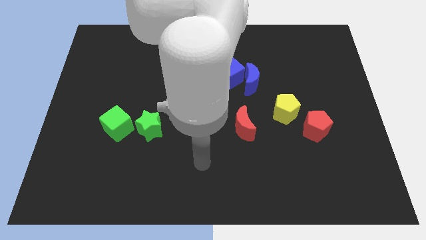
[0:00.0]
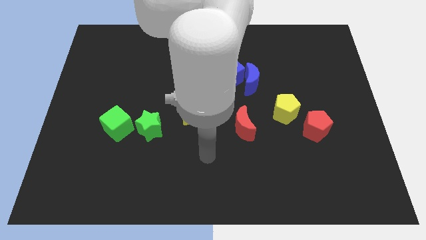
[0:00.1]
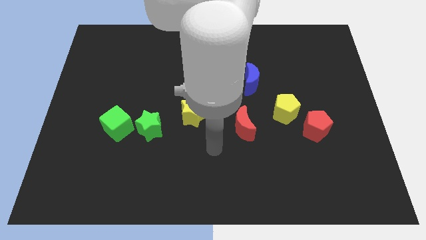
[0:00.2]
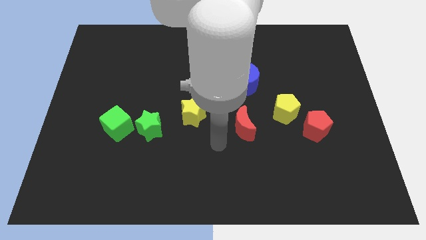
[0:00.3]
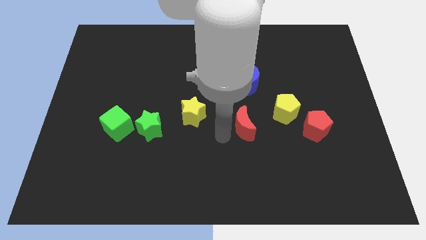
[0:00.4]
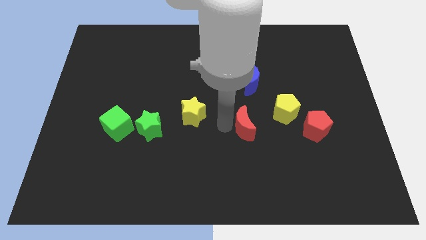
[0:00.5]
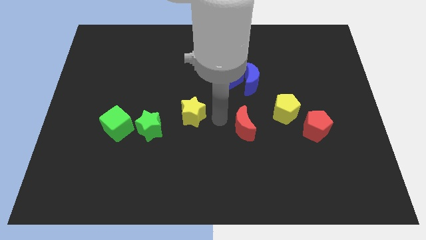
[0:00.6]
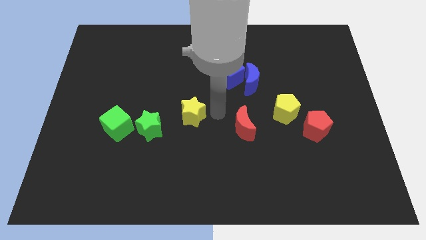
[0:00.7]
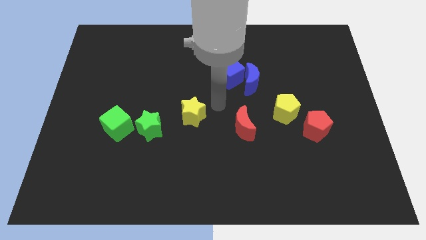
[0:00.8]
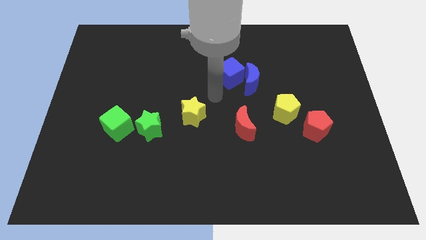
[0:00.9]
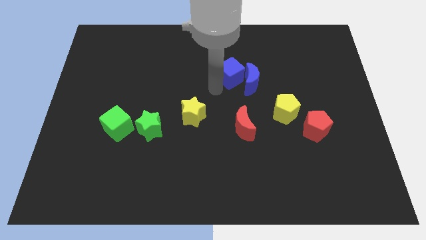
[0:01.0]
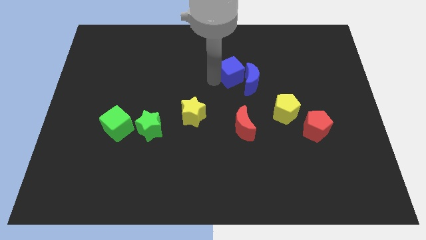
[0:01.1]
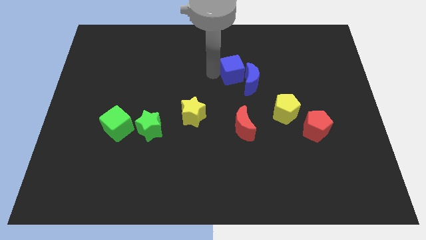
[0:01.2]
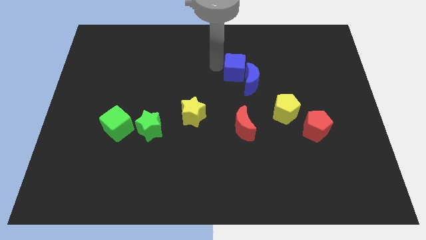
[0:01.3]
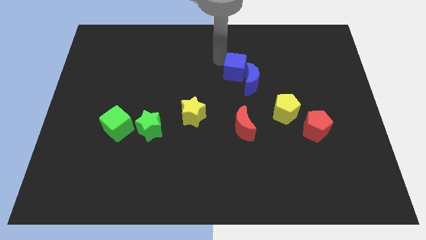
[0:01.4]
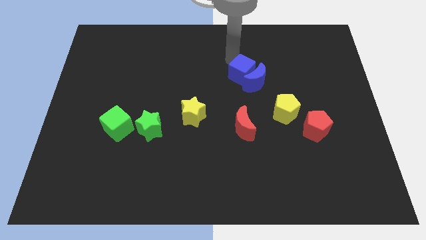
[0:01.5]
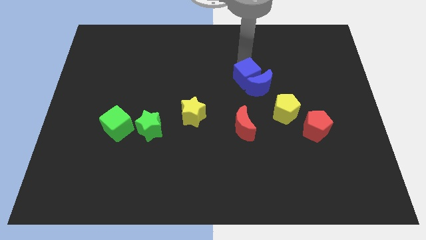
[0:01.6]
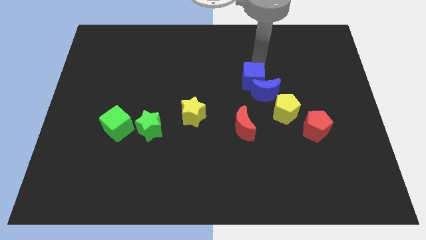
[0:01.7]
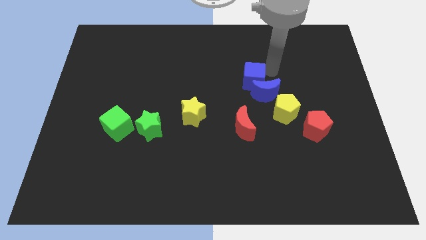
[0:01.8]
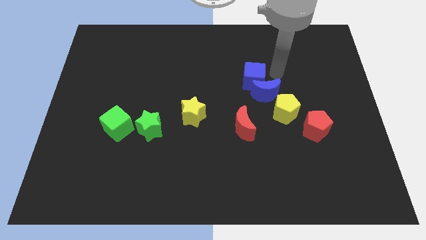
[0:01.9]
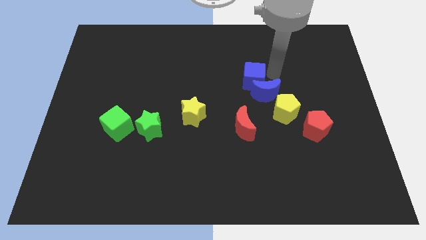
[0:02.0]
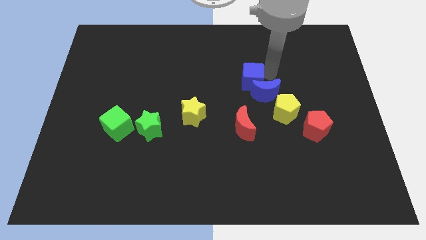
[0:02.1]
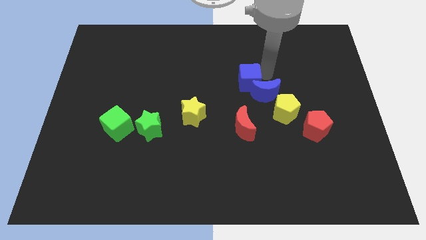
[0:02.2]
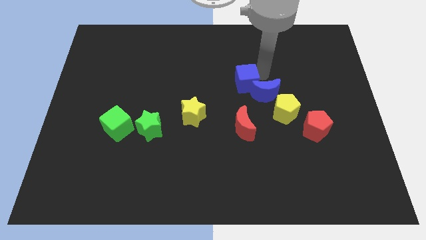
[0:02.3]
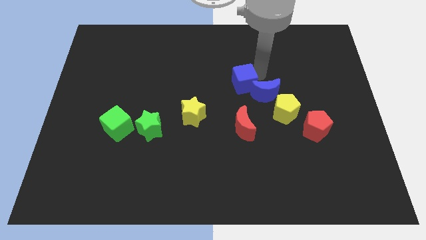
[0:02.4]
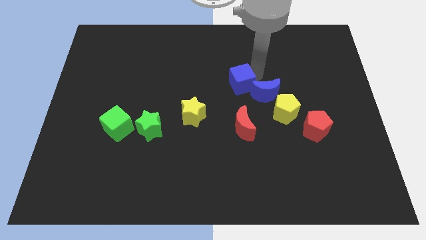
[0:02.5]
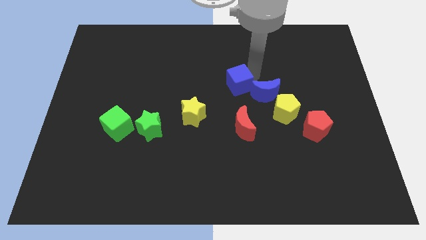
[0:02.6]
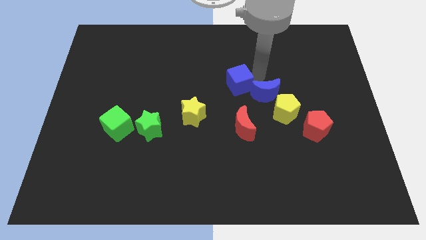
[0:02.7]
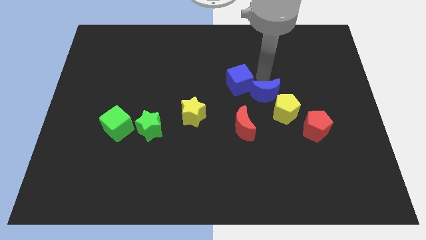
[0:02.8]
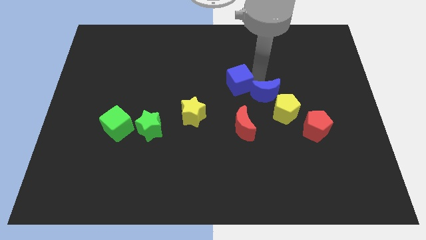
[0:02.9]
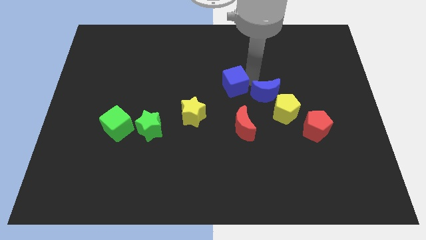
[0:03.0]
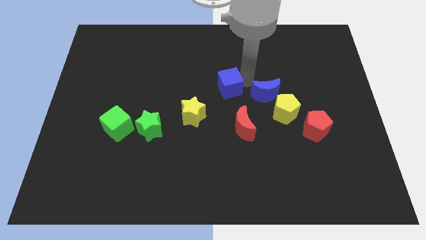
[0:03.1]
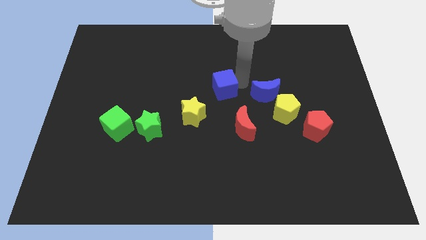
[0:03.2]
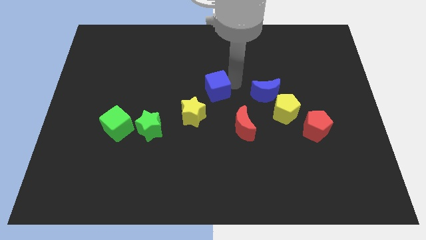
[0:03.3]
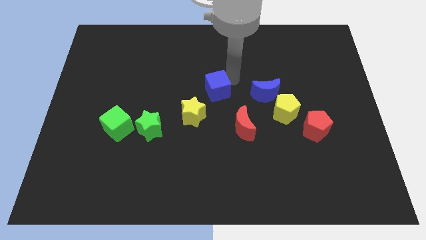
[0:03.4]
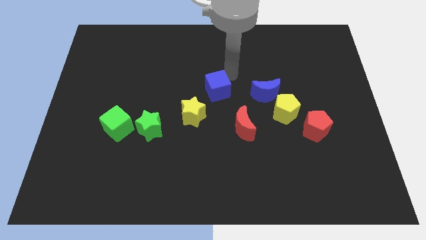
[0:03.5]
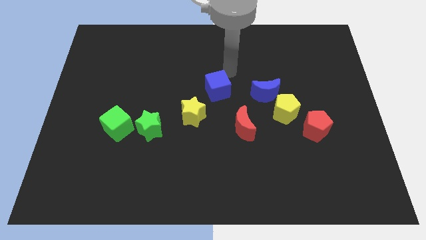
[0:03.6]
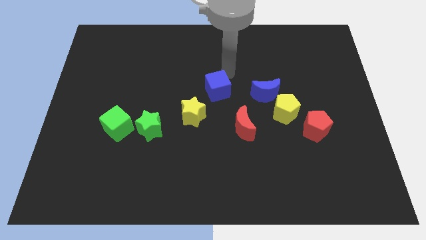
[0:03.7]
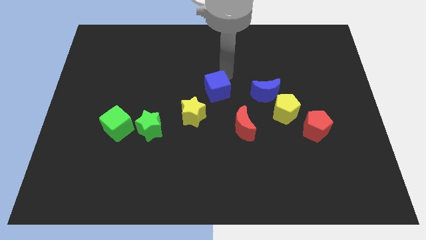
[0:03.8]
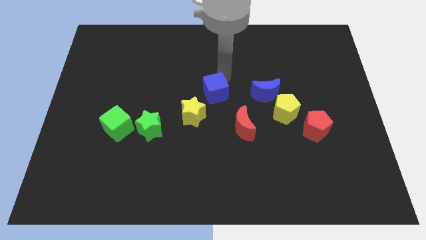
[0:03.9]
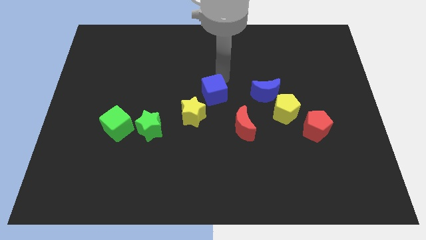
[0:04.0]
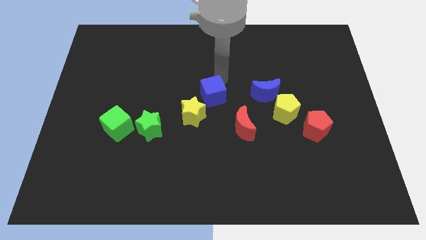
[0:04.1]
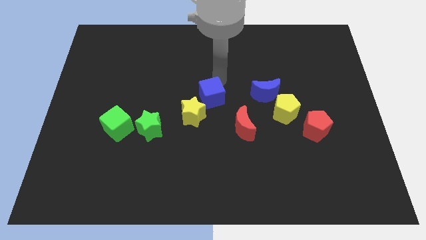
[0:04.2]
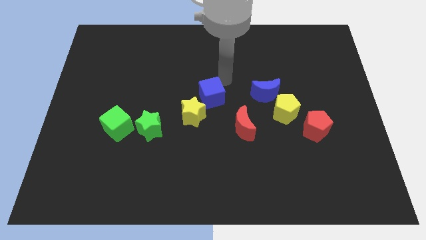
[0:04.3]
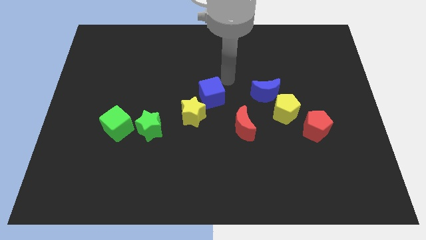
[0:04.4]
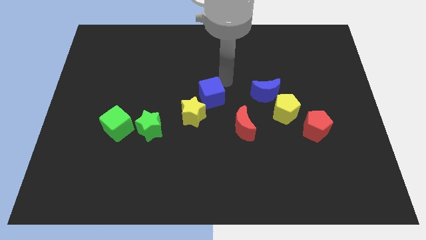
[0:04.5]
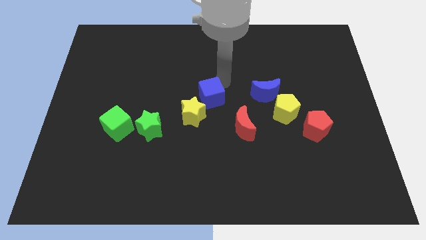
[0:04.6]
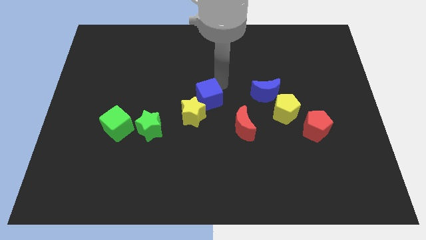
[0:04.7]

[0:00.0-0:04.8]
move the blue cube to the yellow star

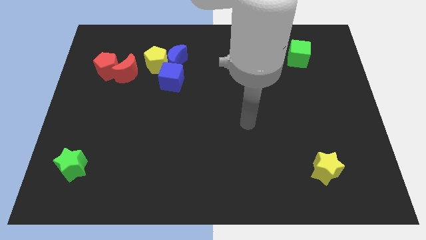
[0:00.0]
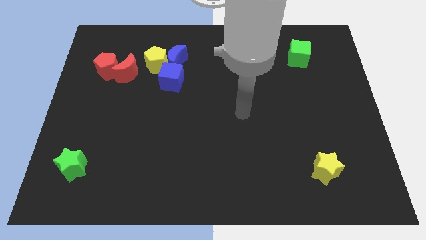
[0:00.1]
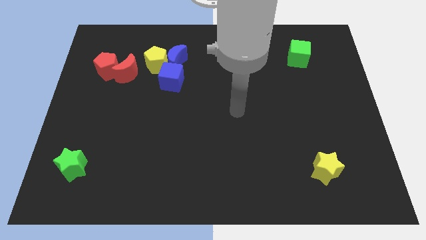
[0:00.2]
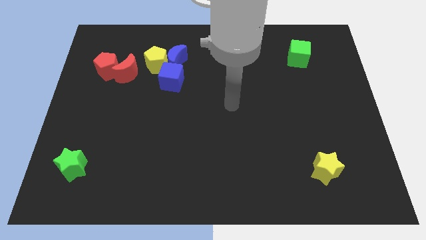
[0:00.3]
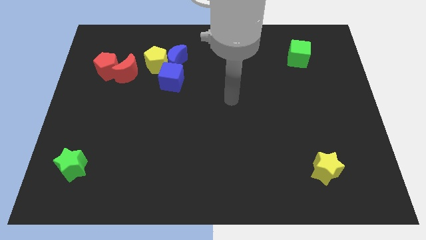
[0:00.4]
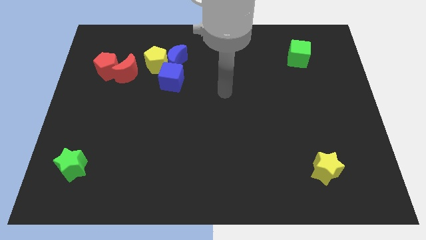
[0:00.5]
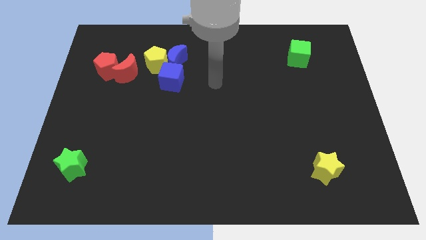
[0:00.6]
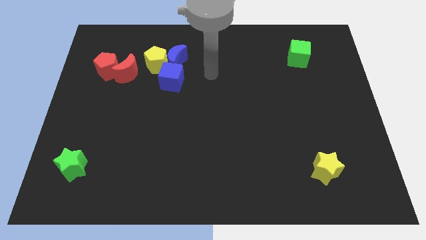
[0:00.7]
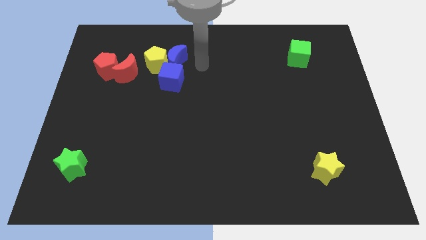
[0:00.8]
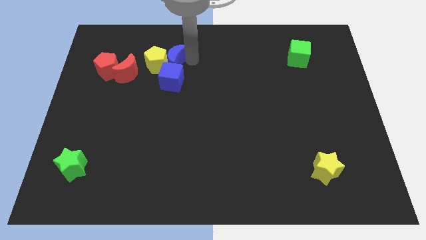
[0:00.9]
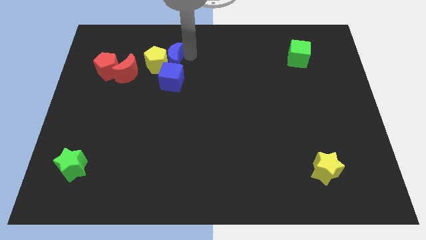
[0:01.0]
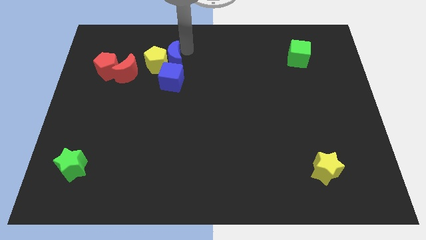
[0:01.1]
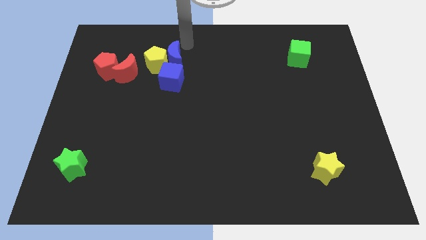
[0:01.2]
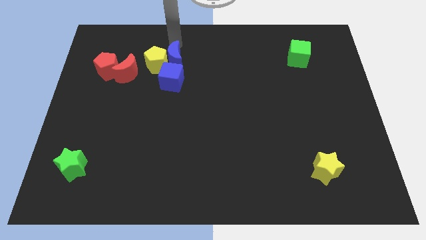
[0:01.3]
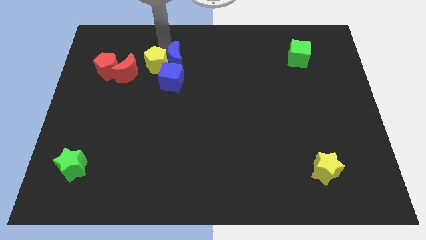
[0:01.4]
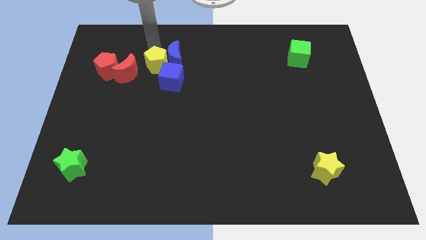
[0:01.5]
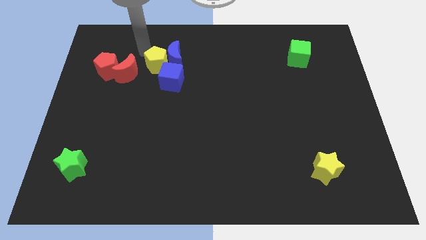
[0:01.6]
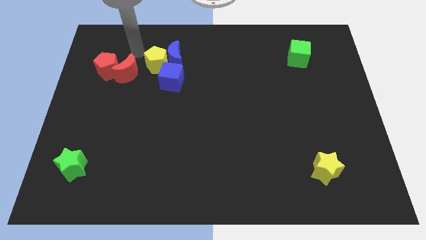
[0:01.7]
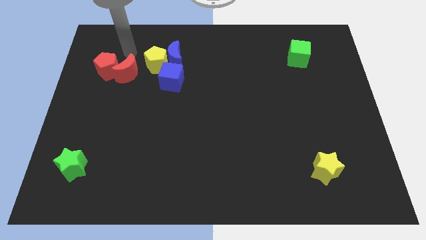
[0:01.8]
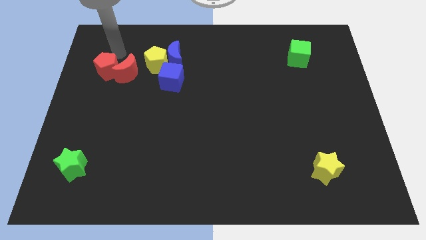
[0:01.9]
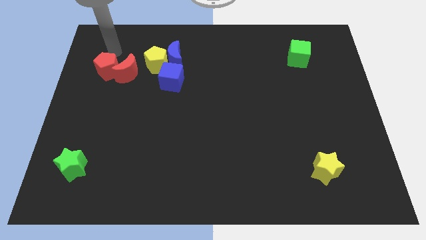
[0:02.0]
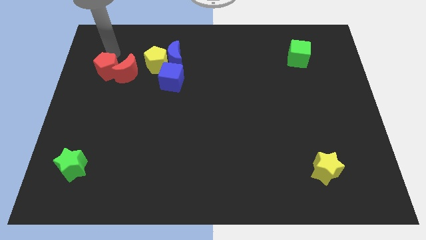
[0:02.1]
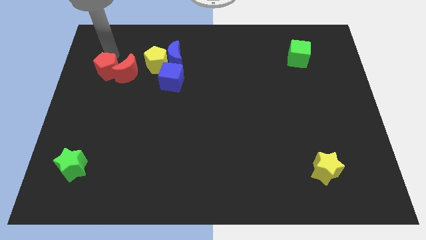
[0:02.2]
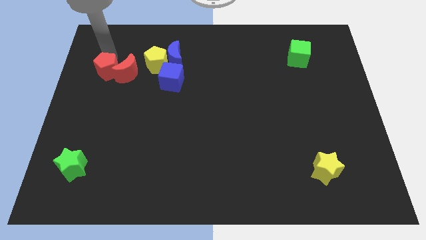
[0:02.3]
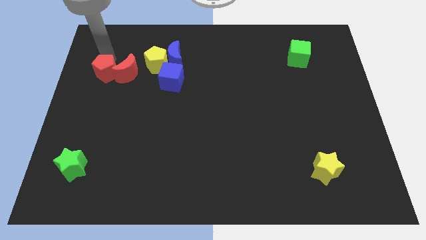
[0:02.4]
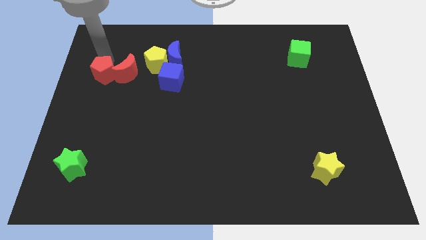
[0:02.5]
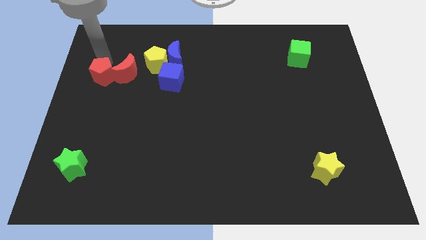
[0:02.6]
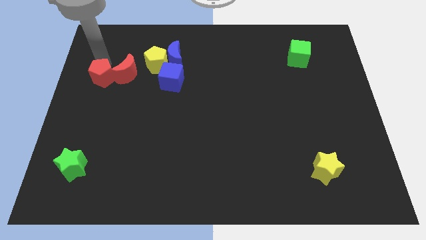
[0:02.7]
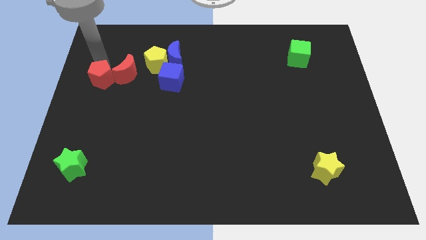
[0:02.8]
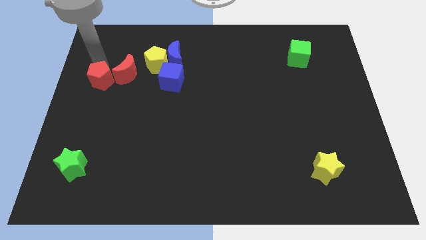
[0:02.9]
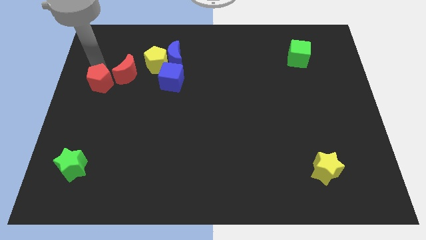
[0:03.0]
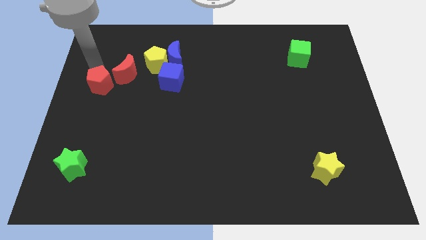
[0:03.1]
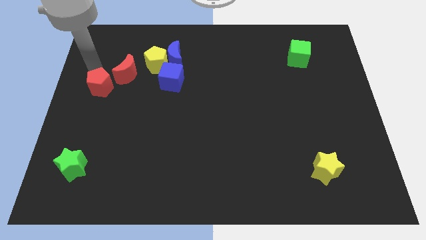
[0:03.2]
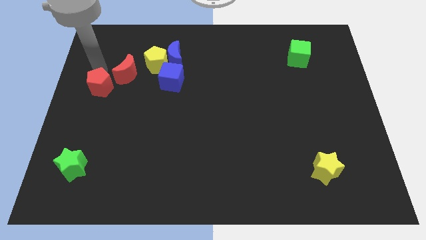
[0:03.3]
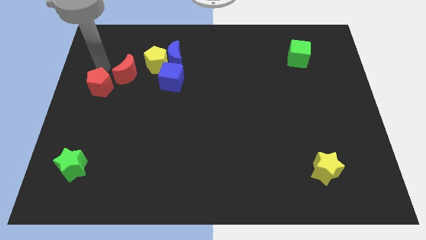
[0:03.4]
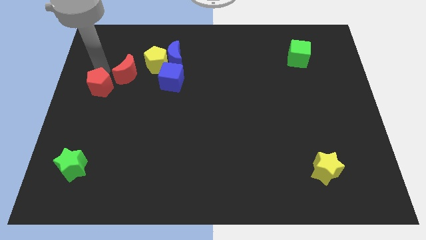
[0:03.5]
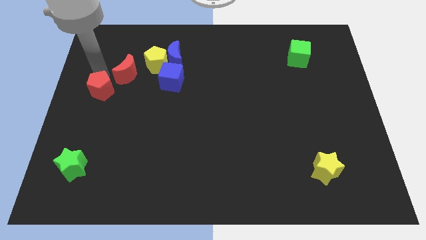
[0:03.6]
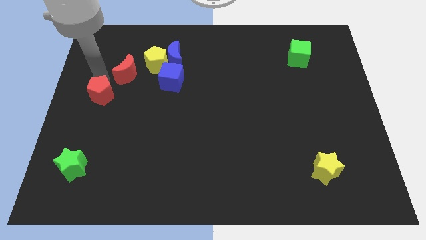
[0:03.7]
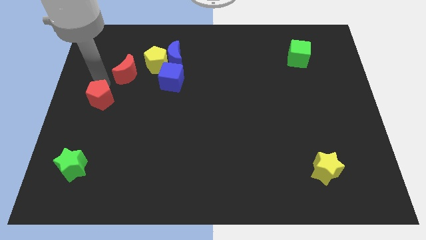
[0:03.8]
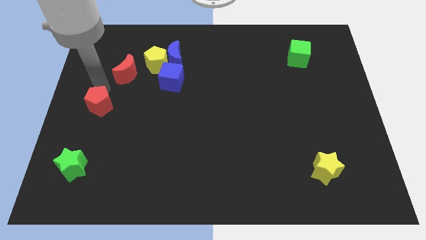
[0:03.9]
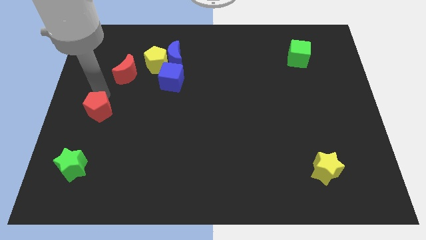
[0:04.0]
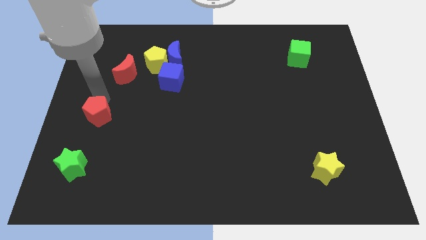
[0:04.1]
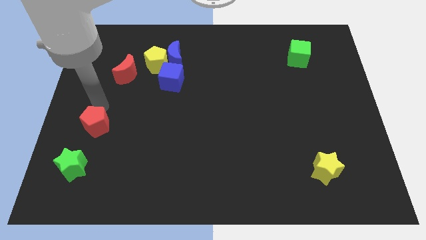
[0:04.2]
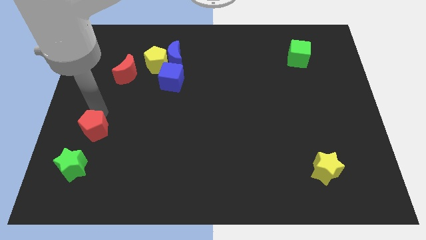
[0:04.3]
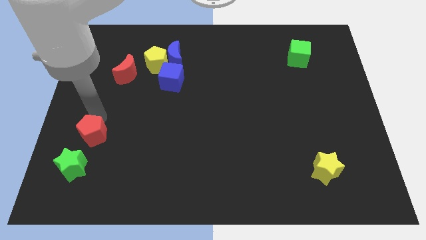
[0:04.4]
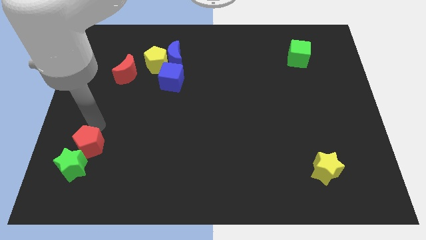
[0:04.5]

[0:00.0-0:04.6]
push the red pentagon next to the green star
